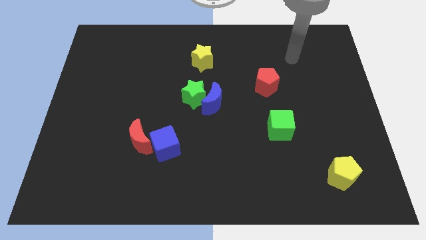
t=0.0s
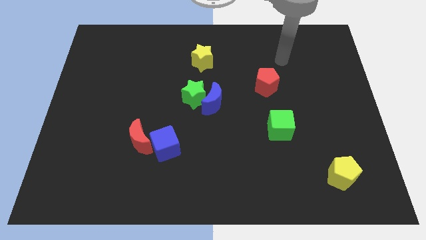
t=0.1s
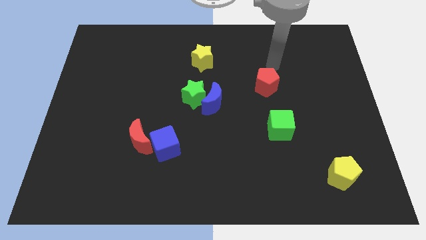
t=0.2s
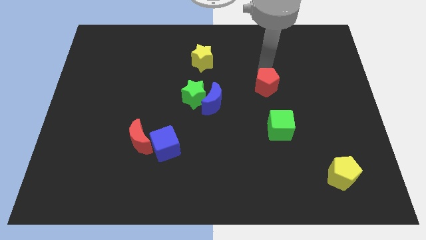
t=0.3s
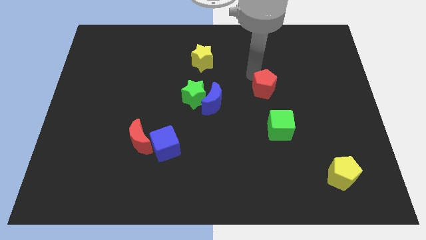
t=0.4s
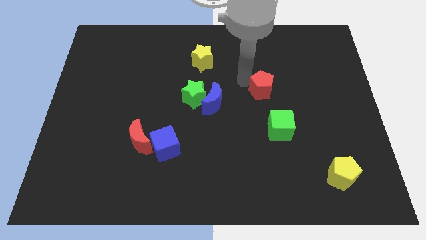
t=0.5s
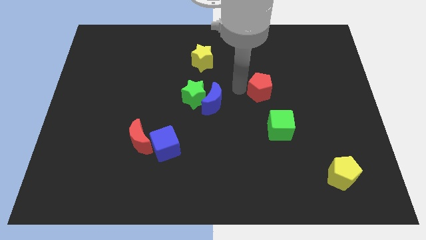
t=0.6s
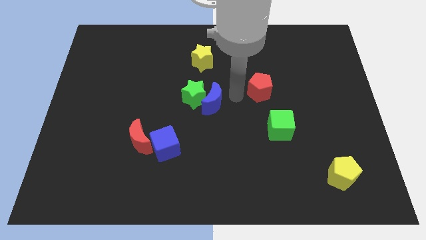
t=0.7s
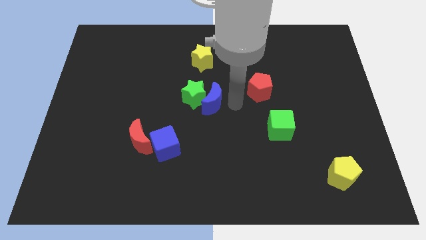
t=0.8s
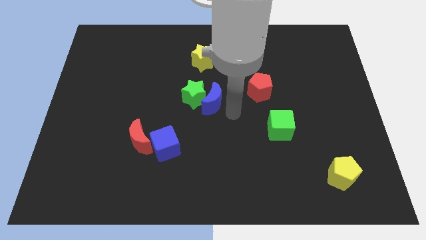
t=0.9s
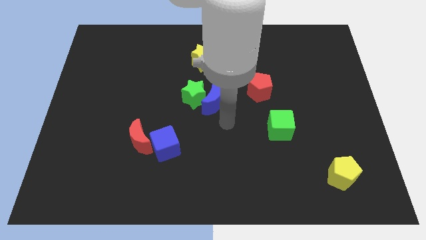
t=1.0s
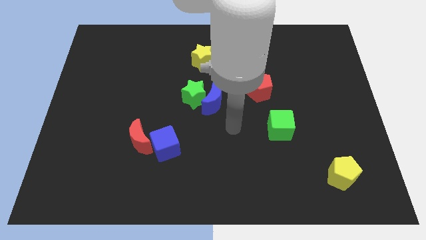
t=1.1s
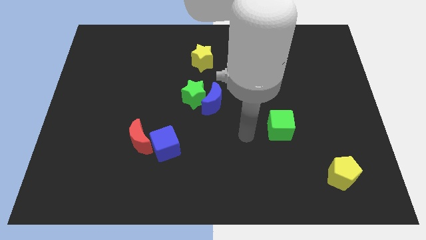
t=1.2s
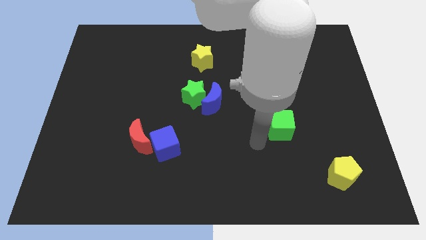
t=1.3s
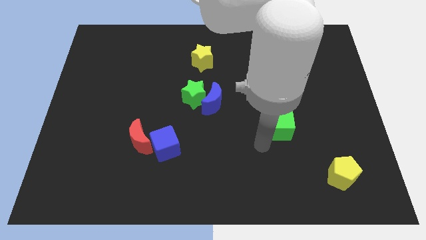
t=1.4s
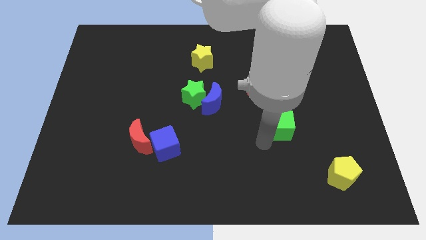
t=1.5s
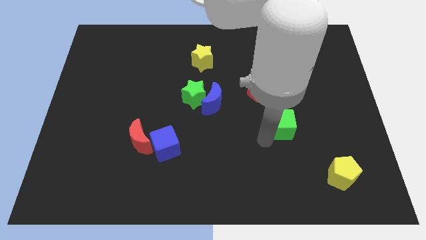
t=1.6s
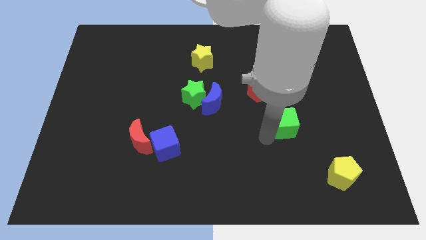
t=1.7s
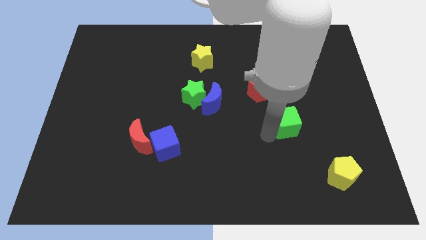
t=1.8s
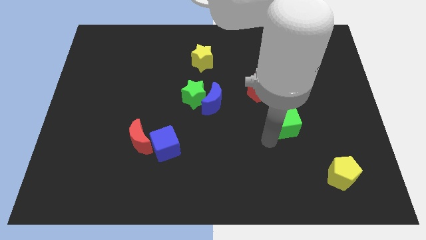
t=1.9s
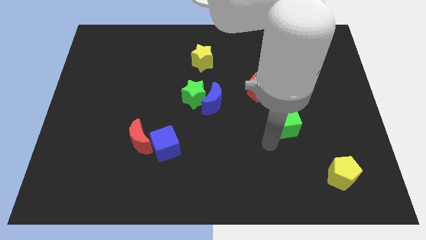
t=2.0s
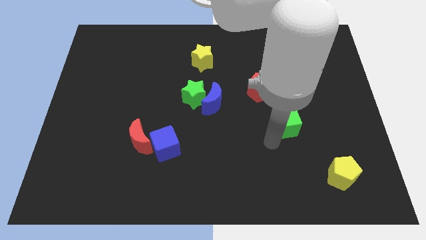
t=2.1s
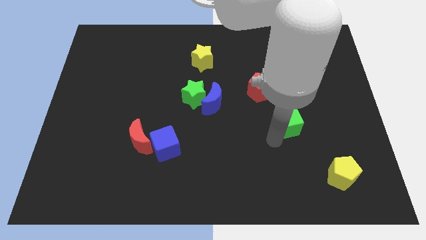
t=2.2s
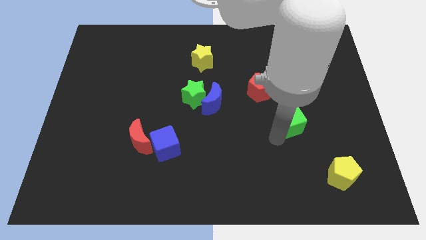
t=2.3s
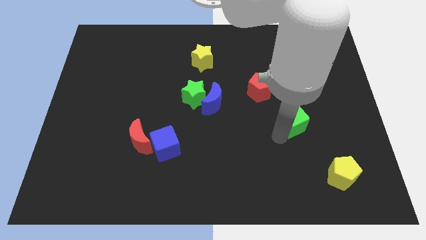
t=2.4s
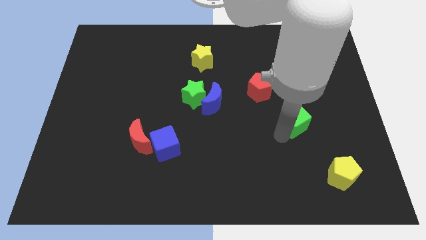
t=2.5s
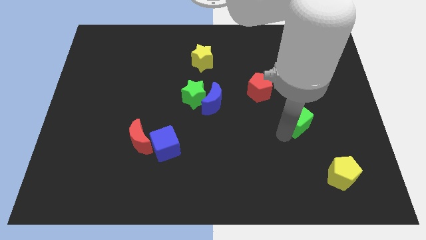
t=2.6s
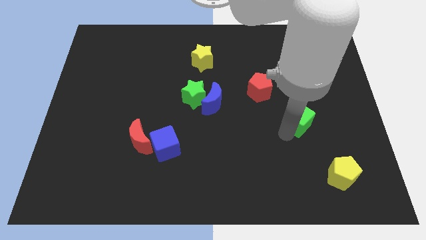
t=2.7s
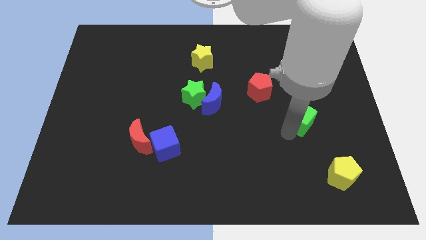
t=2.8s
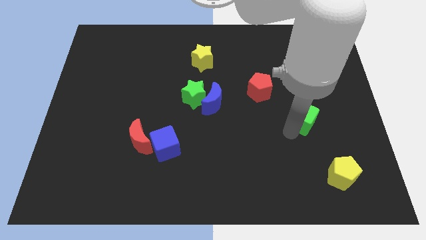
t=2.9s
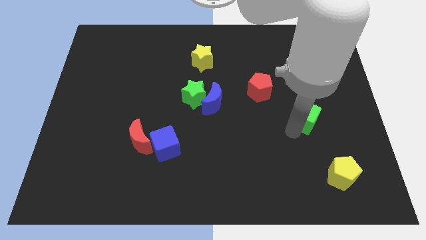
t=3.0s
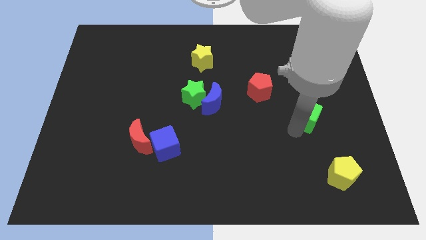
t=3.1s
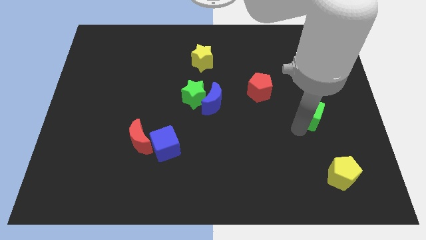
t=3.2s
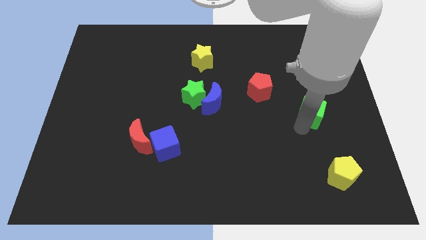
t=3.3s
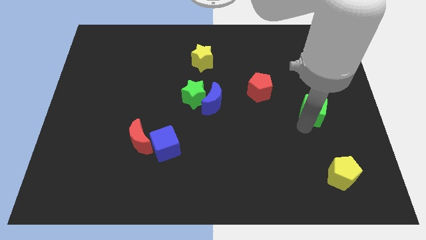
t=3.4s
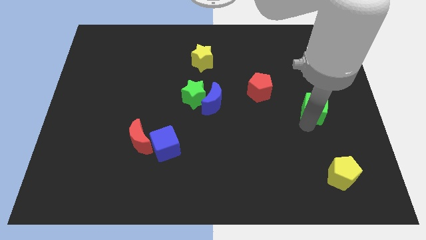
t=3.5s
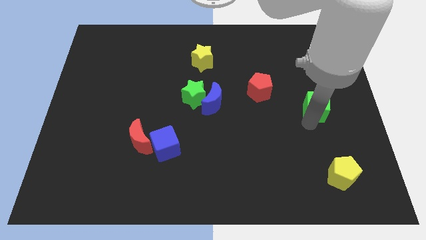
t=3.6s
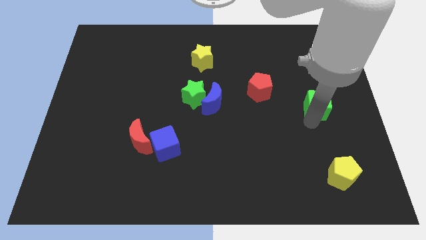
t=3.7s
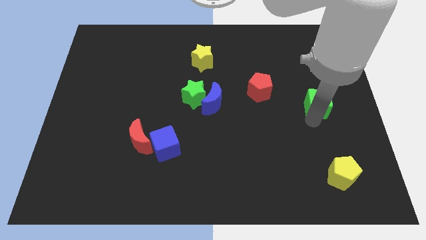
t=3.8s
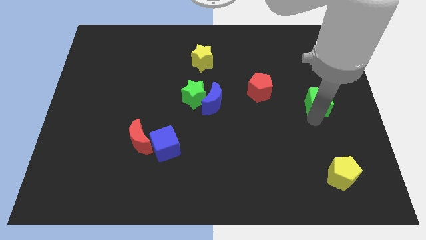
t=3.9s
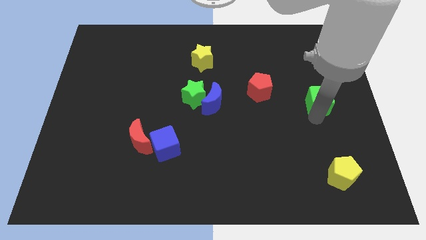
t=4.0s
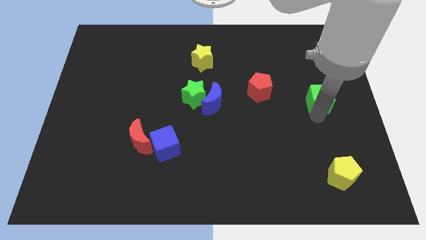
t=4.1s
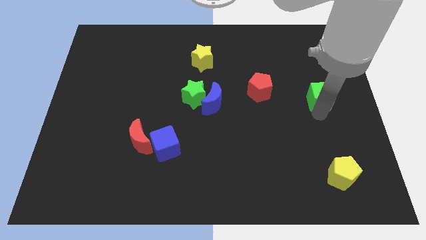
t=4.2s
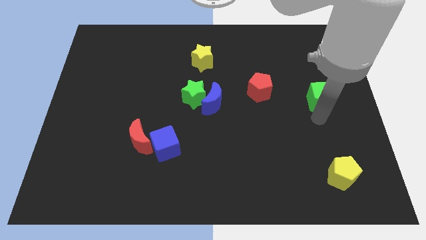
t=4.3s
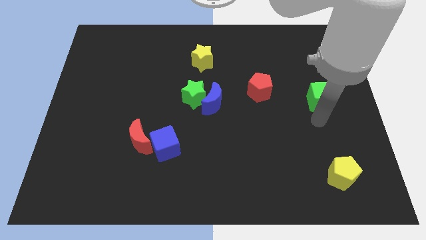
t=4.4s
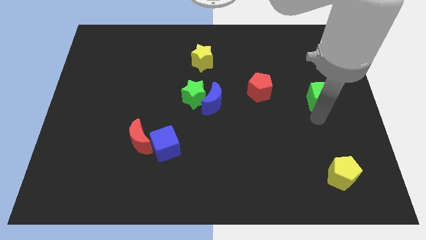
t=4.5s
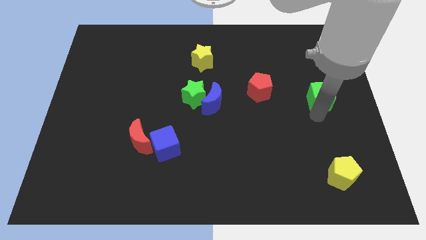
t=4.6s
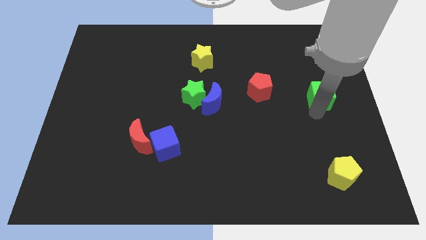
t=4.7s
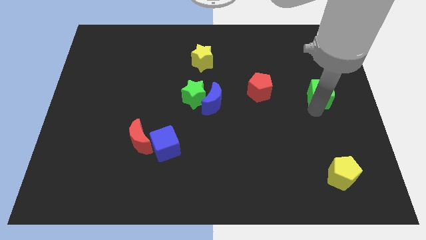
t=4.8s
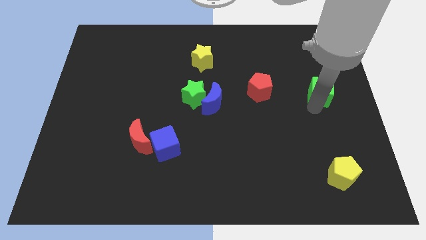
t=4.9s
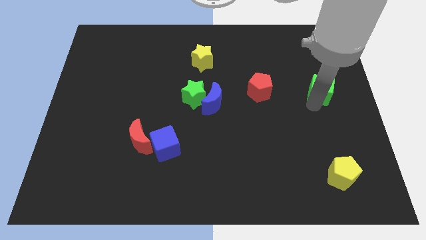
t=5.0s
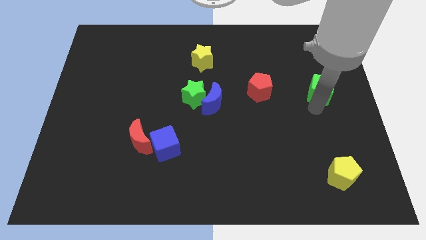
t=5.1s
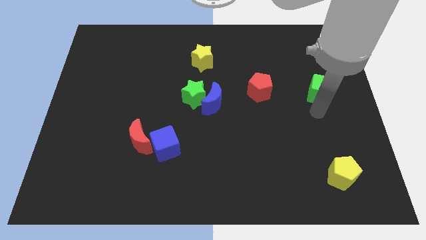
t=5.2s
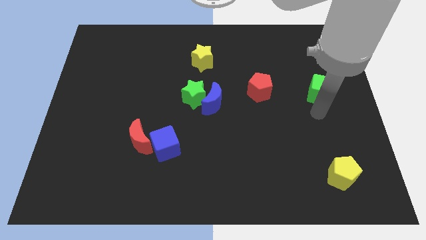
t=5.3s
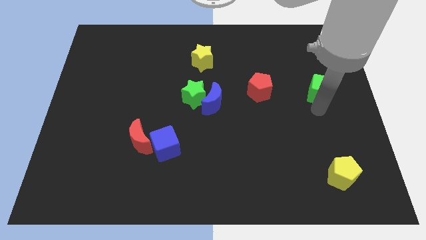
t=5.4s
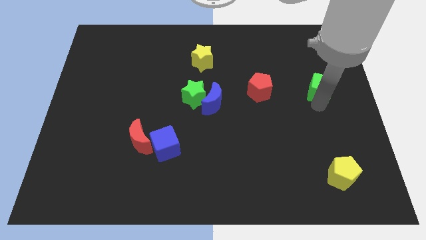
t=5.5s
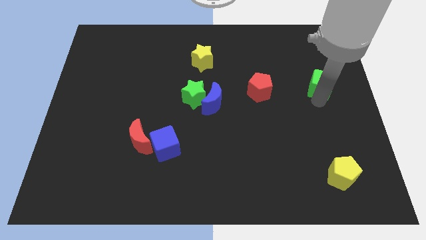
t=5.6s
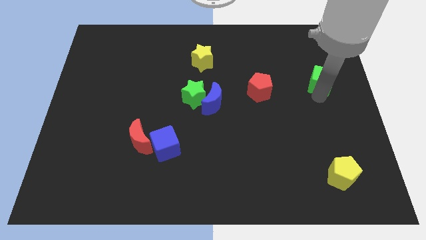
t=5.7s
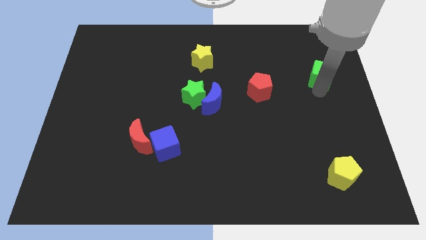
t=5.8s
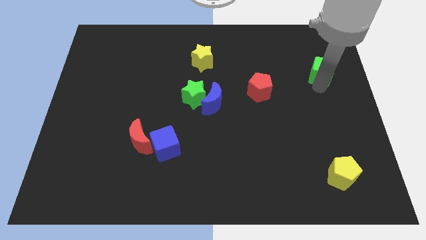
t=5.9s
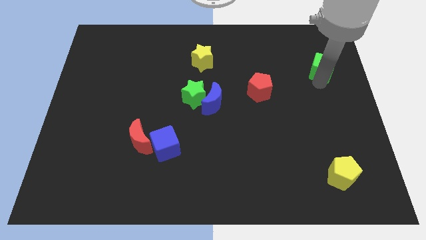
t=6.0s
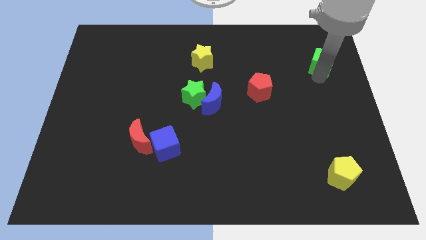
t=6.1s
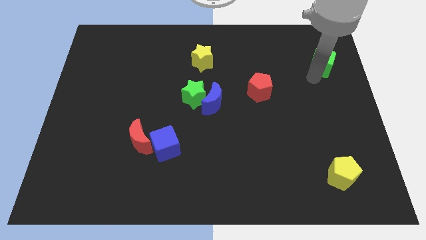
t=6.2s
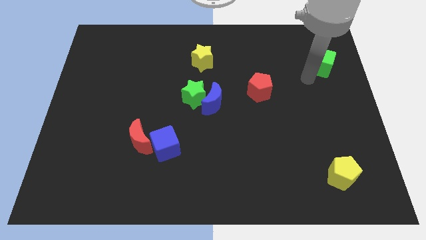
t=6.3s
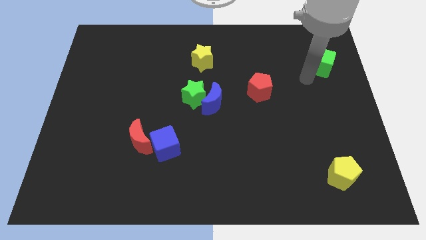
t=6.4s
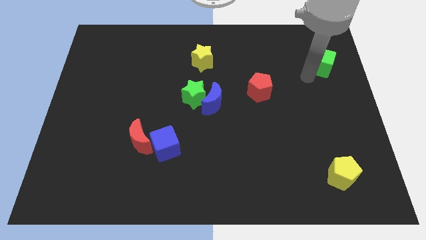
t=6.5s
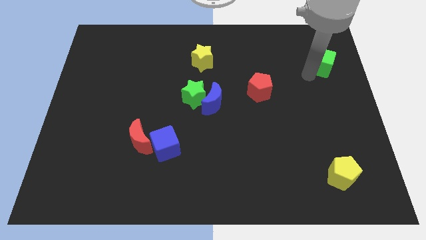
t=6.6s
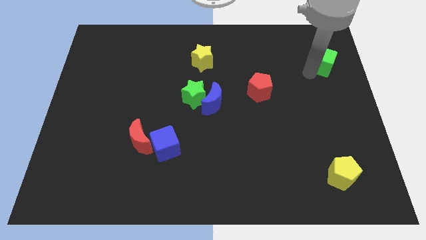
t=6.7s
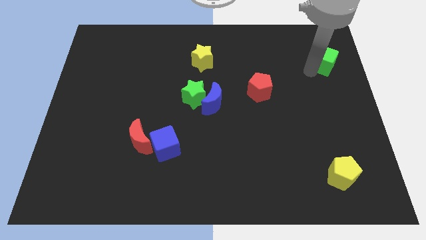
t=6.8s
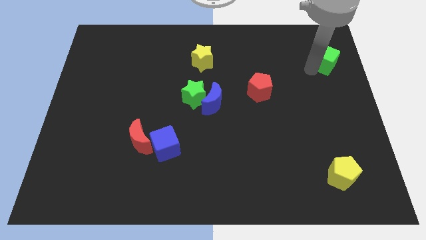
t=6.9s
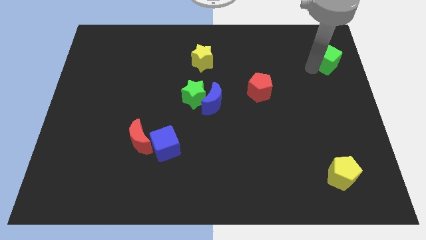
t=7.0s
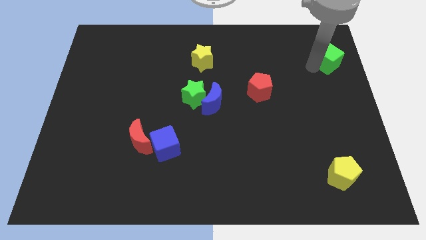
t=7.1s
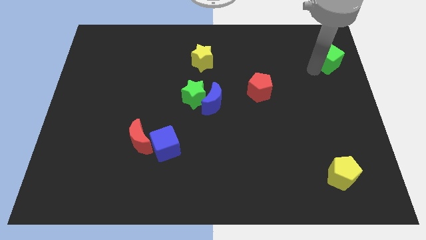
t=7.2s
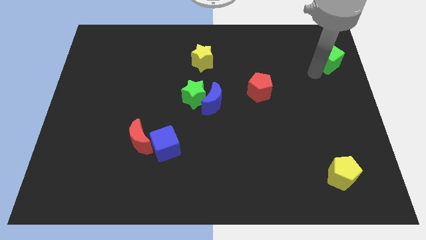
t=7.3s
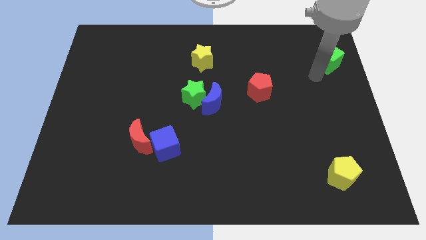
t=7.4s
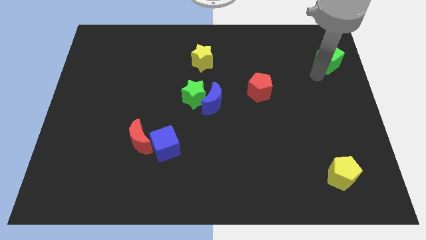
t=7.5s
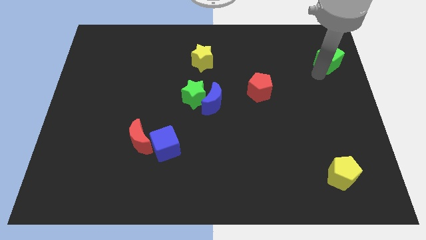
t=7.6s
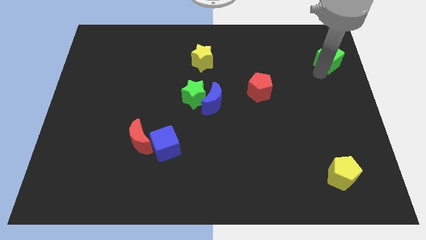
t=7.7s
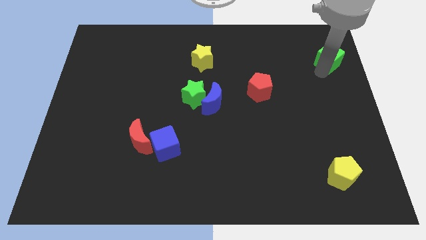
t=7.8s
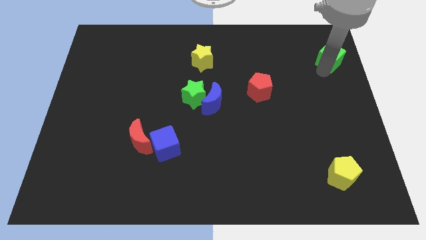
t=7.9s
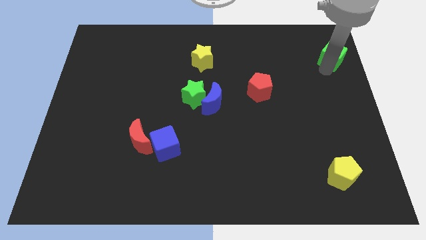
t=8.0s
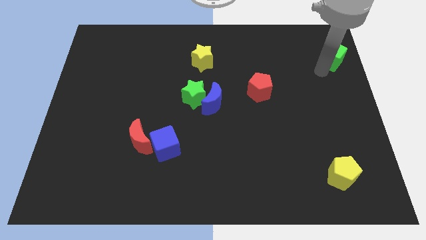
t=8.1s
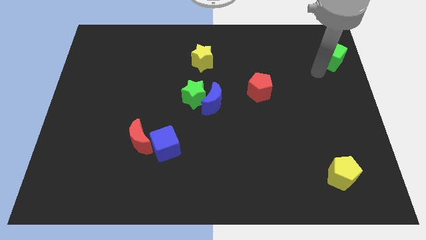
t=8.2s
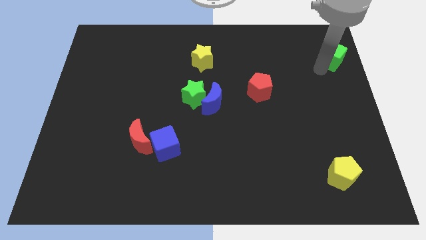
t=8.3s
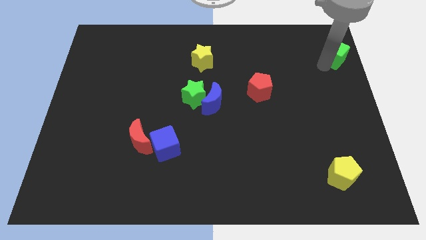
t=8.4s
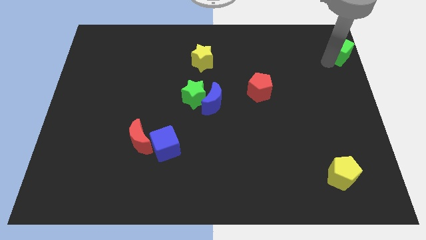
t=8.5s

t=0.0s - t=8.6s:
put the green cube to the top right of the board
